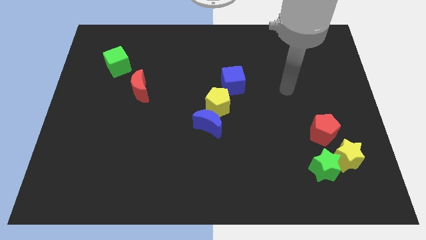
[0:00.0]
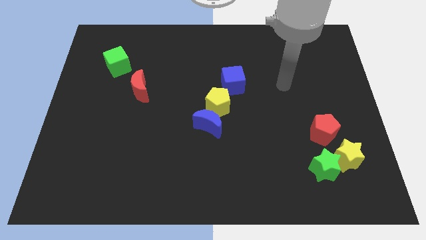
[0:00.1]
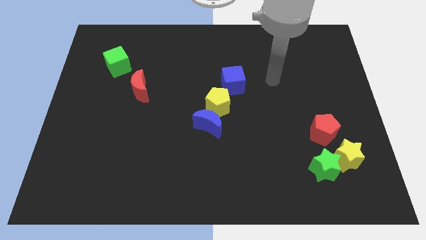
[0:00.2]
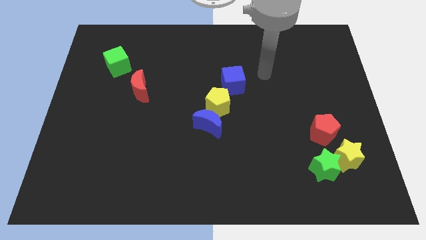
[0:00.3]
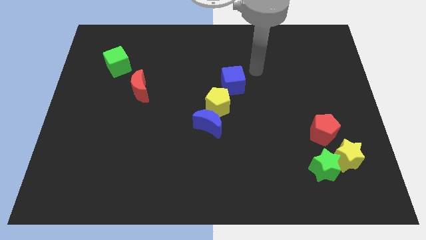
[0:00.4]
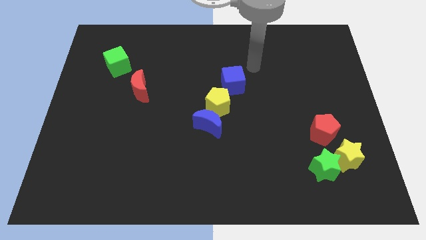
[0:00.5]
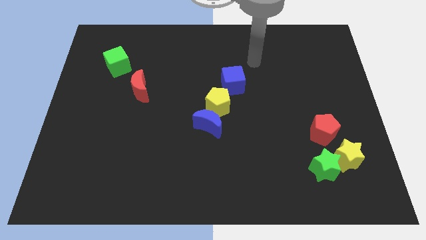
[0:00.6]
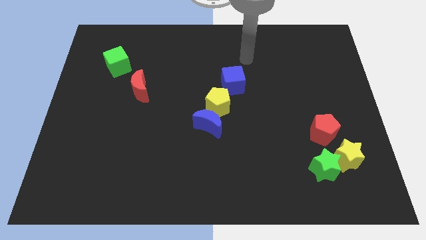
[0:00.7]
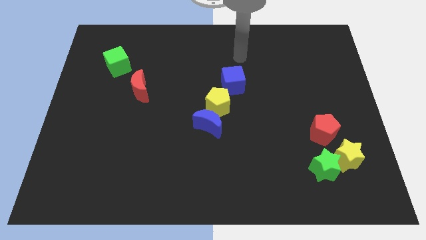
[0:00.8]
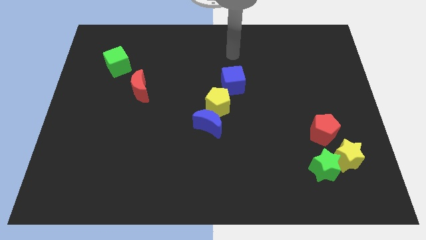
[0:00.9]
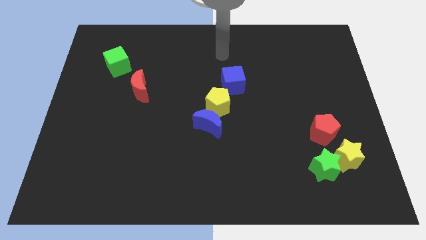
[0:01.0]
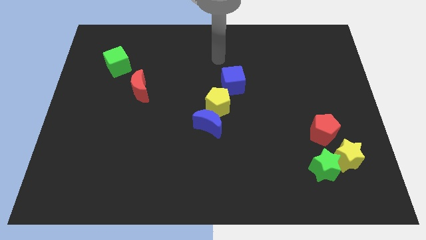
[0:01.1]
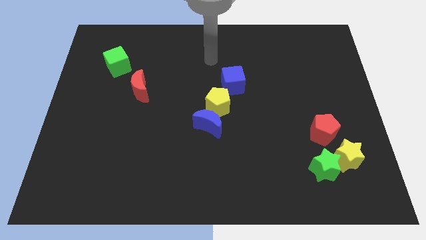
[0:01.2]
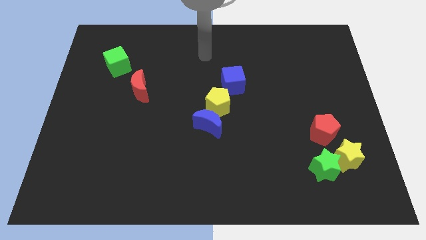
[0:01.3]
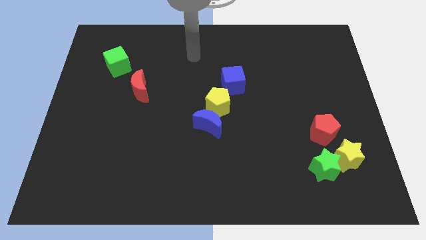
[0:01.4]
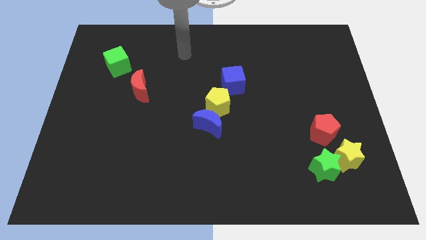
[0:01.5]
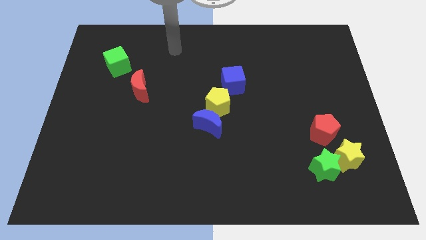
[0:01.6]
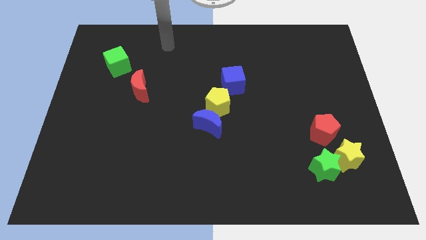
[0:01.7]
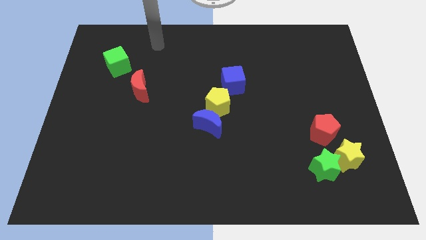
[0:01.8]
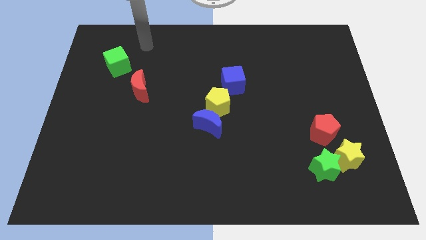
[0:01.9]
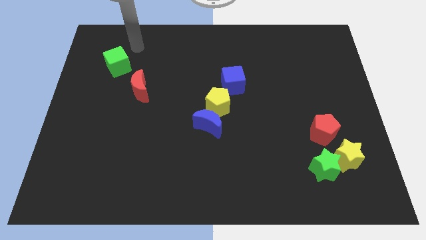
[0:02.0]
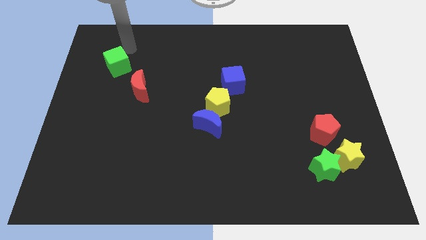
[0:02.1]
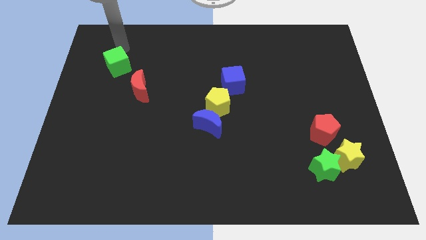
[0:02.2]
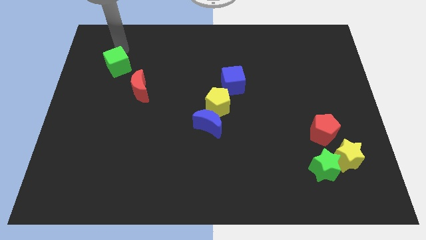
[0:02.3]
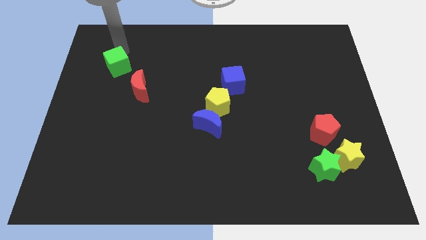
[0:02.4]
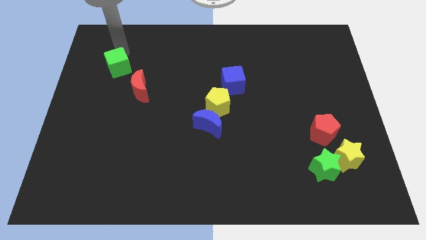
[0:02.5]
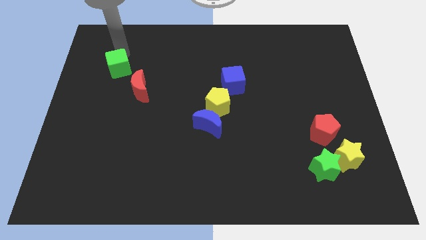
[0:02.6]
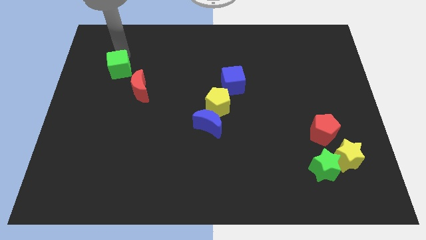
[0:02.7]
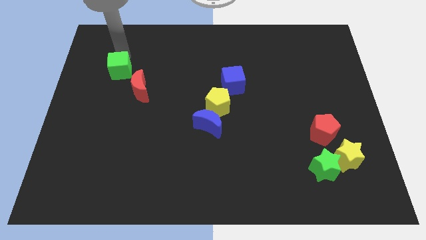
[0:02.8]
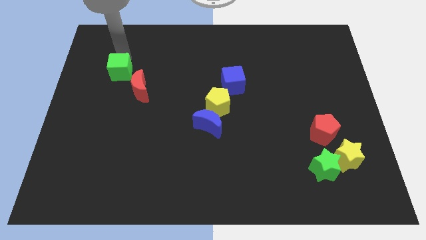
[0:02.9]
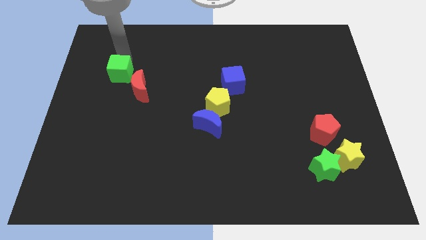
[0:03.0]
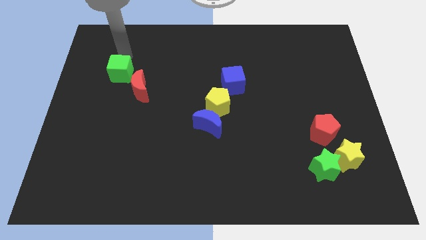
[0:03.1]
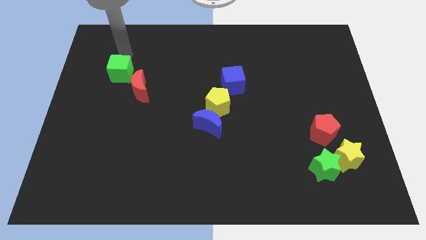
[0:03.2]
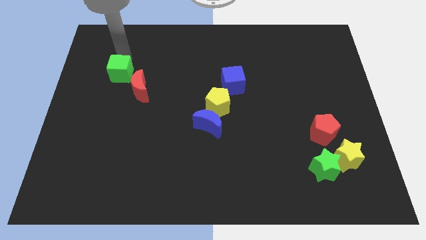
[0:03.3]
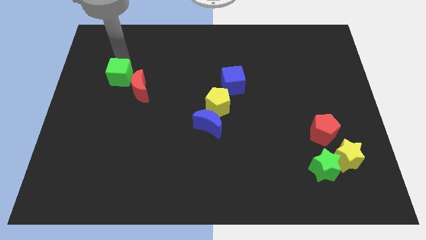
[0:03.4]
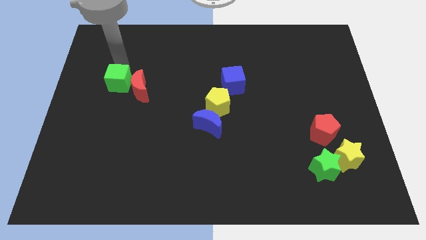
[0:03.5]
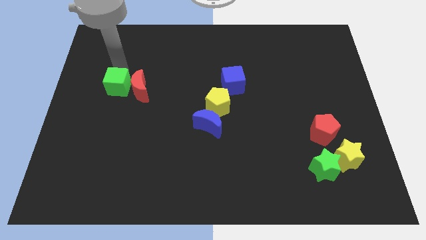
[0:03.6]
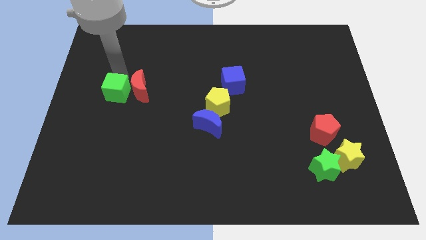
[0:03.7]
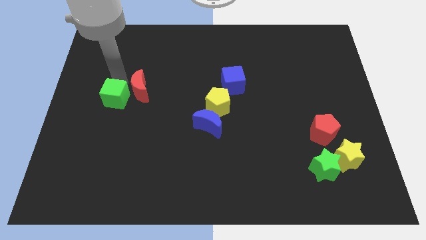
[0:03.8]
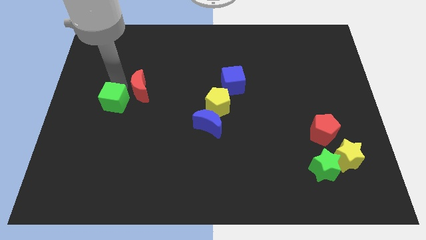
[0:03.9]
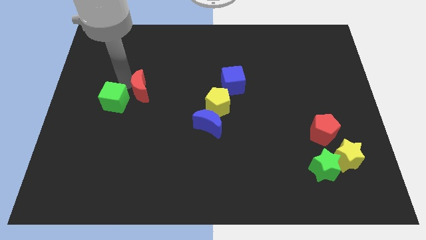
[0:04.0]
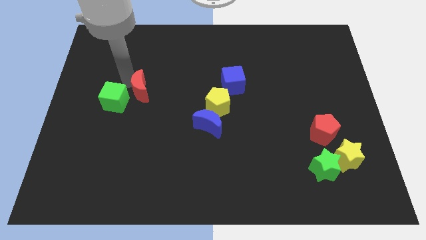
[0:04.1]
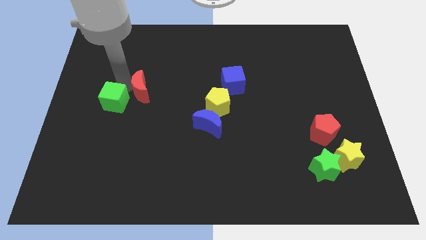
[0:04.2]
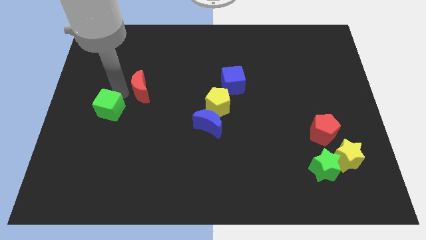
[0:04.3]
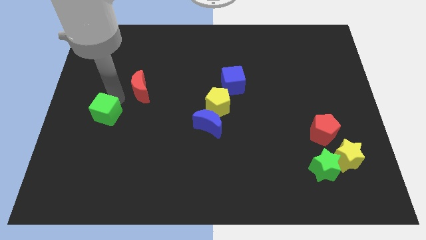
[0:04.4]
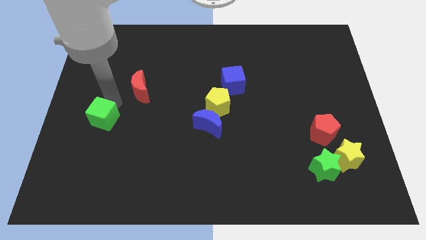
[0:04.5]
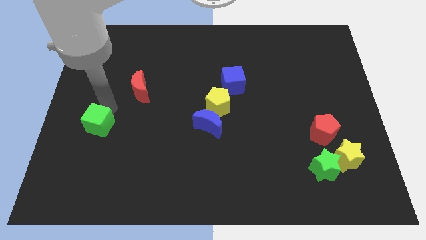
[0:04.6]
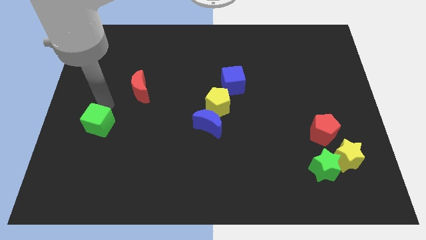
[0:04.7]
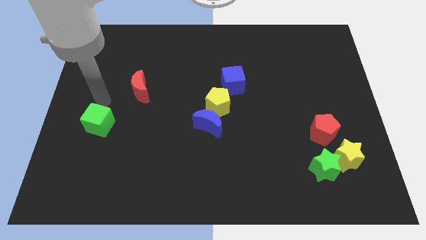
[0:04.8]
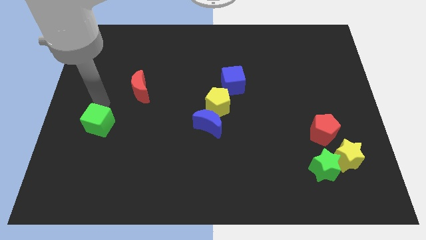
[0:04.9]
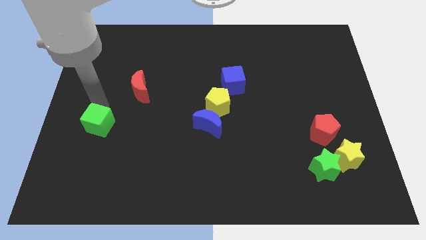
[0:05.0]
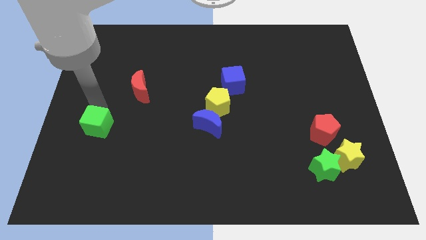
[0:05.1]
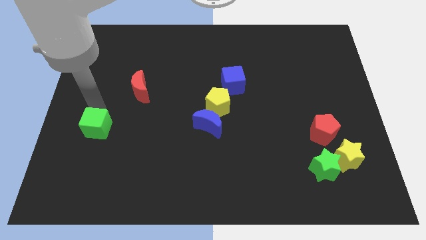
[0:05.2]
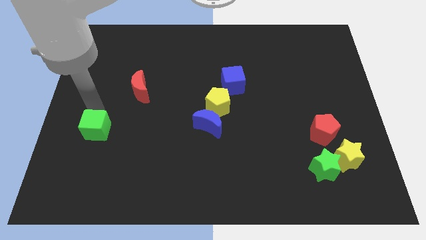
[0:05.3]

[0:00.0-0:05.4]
move the green cube down

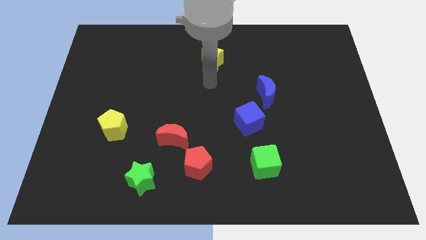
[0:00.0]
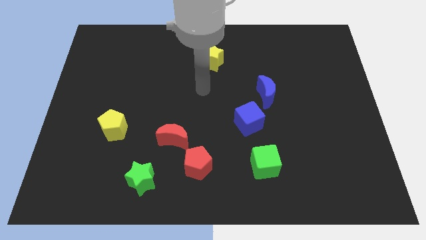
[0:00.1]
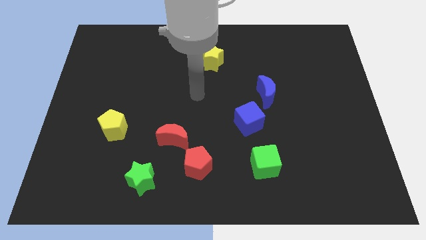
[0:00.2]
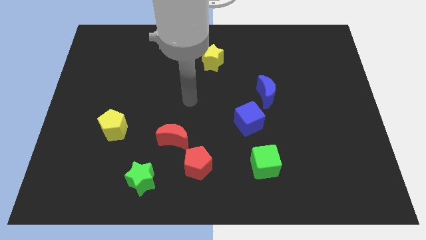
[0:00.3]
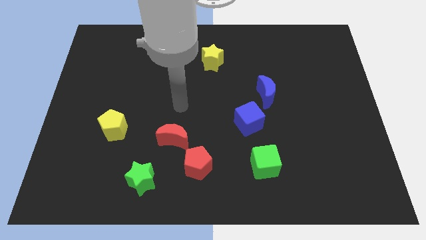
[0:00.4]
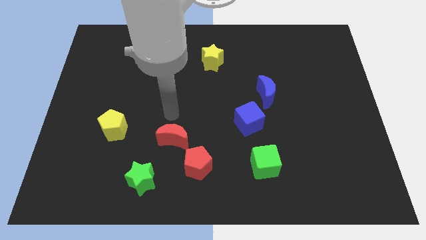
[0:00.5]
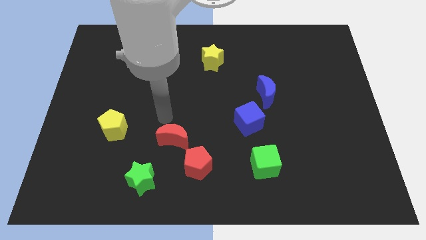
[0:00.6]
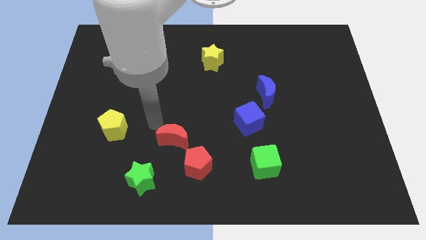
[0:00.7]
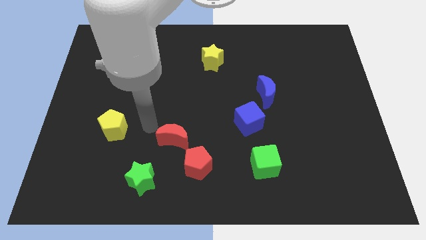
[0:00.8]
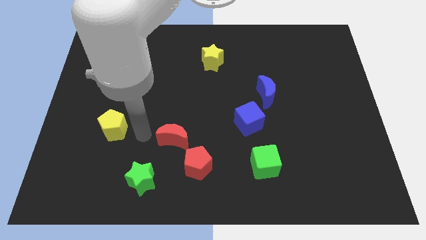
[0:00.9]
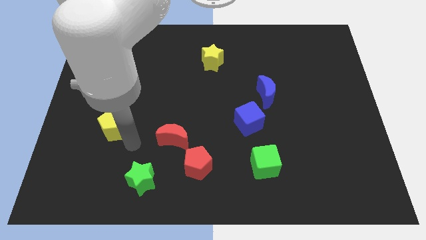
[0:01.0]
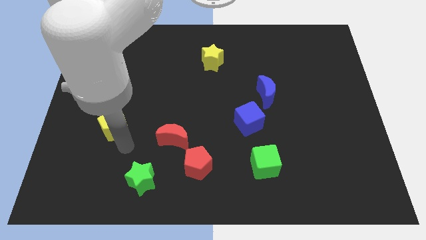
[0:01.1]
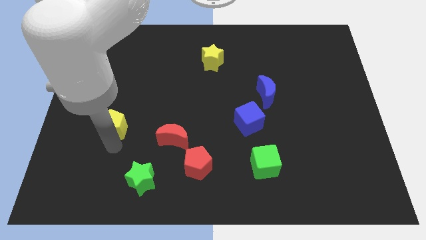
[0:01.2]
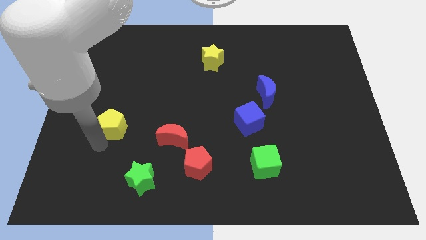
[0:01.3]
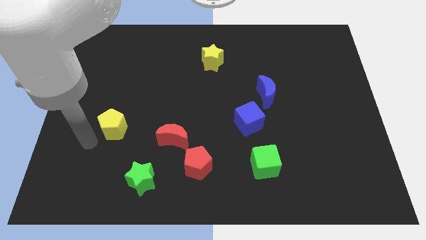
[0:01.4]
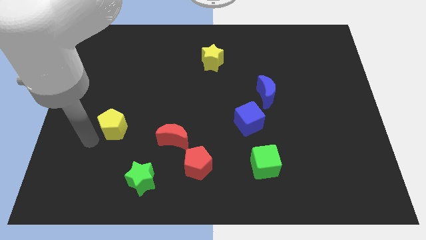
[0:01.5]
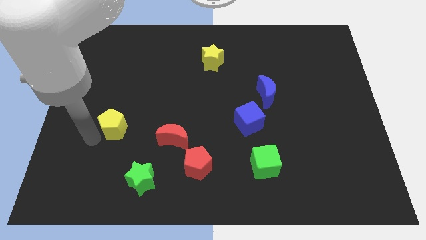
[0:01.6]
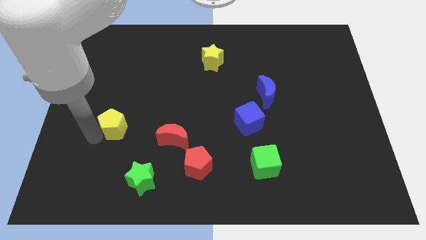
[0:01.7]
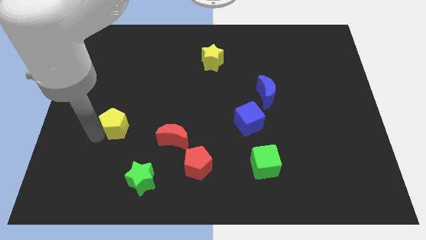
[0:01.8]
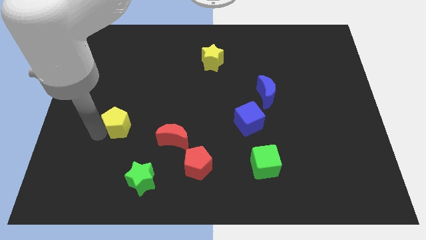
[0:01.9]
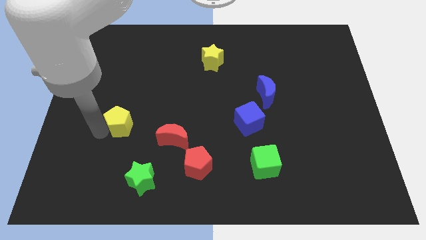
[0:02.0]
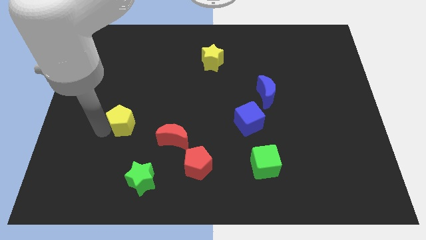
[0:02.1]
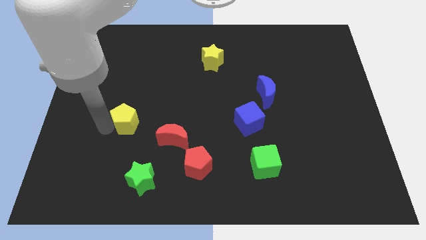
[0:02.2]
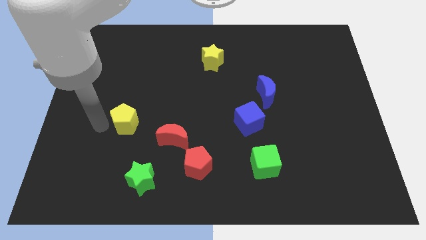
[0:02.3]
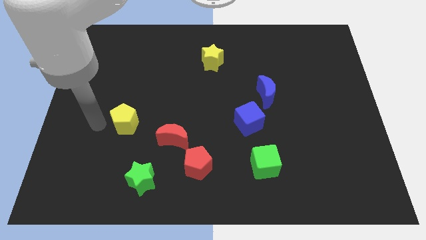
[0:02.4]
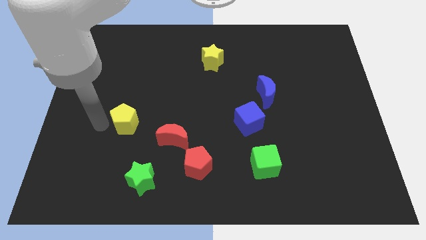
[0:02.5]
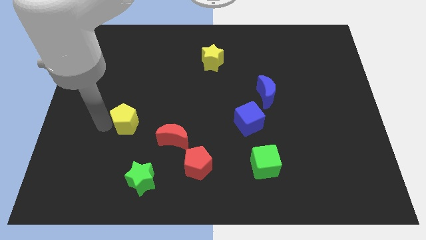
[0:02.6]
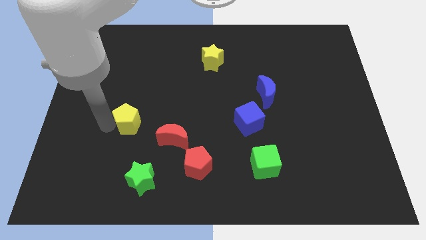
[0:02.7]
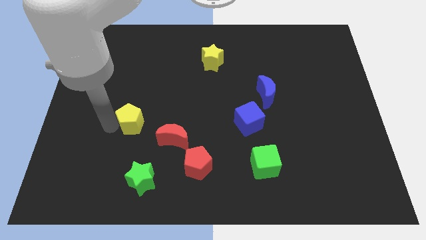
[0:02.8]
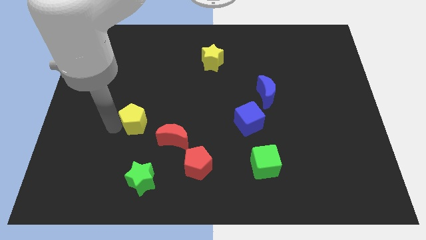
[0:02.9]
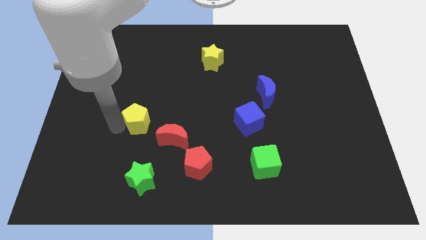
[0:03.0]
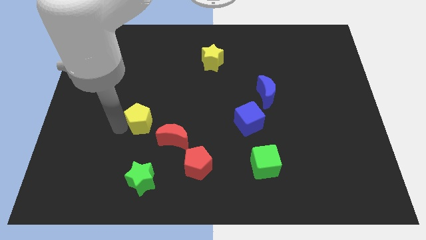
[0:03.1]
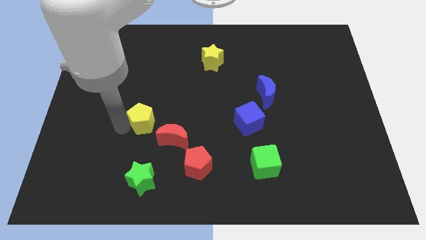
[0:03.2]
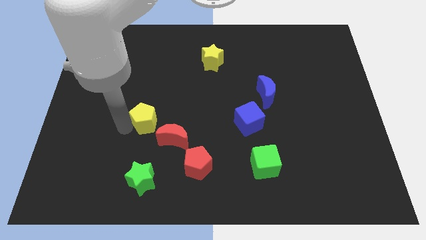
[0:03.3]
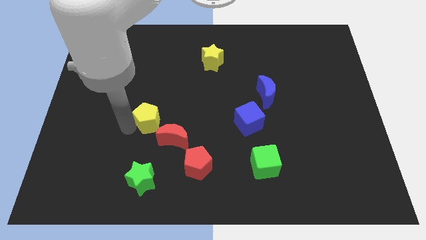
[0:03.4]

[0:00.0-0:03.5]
move the yellow pentagon to the right somewhat
